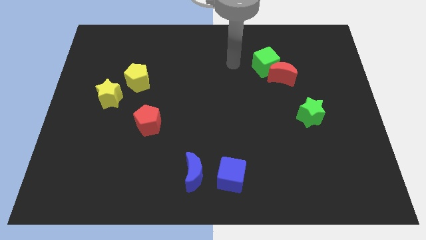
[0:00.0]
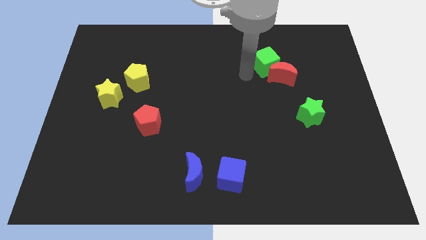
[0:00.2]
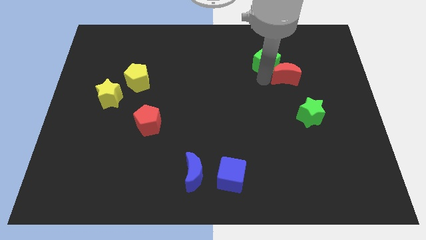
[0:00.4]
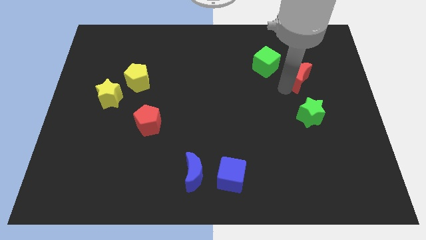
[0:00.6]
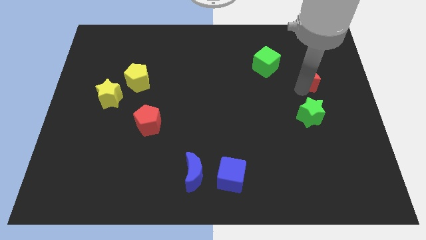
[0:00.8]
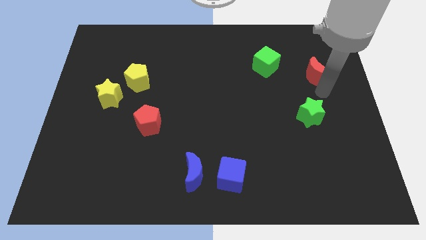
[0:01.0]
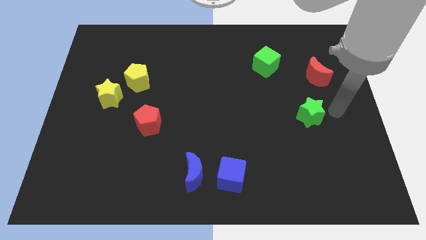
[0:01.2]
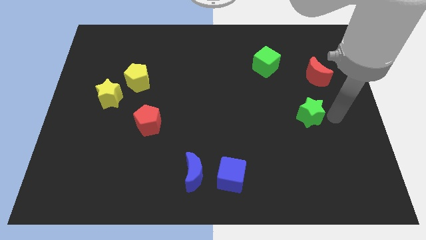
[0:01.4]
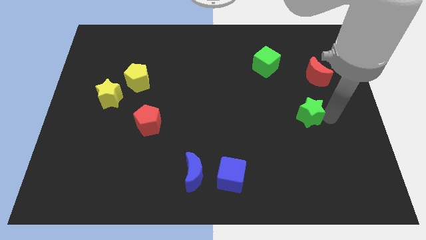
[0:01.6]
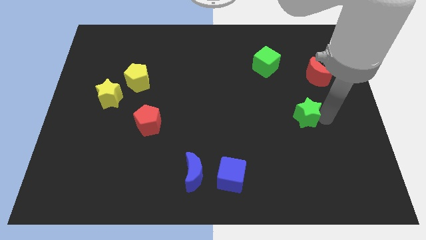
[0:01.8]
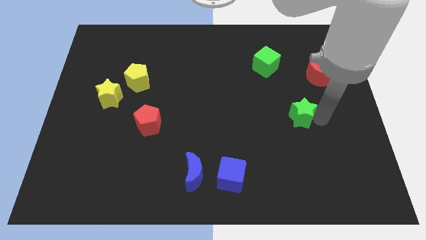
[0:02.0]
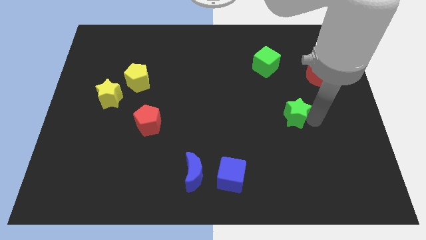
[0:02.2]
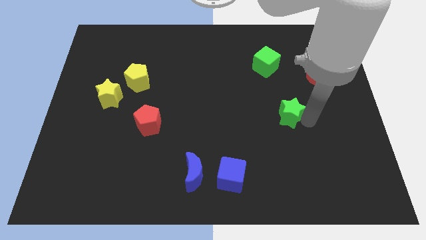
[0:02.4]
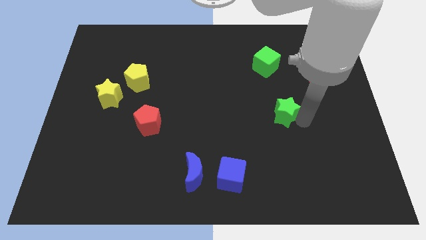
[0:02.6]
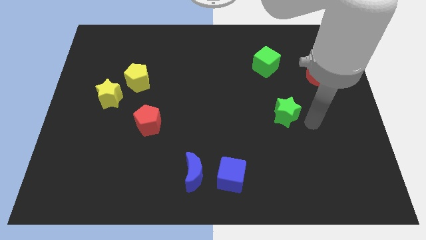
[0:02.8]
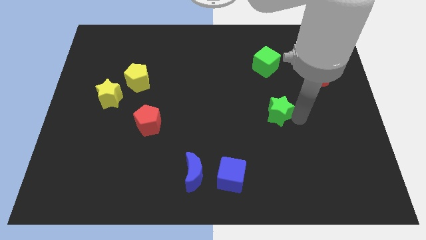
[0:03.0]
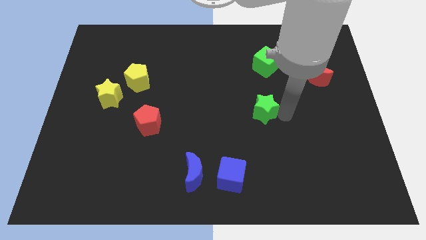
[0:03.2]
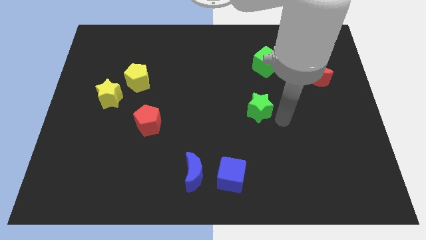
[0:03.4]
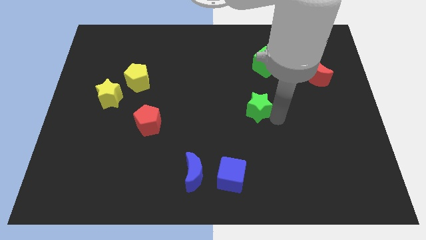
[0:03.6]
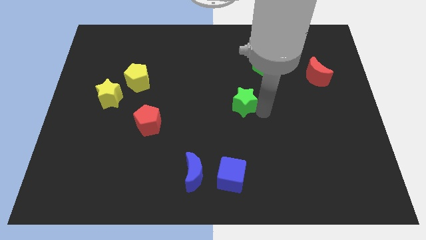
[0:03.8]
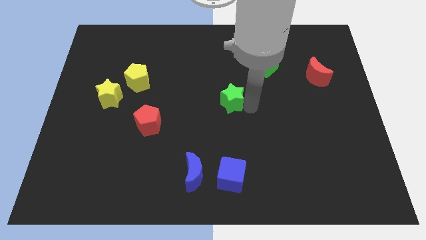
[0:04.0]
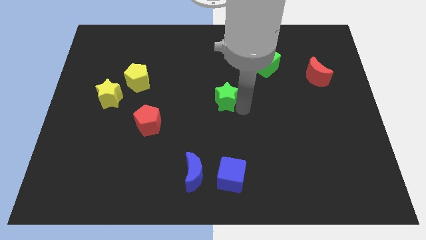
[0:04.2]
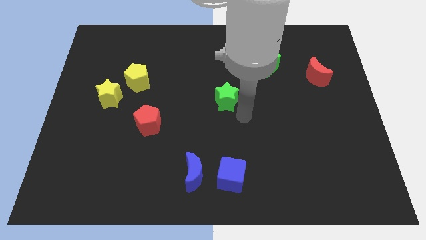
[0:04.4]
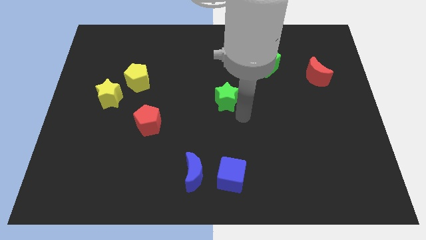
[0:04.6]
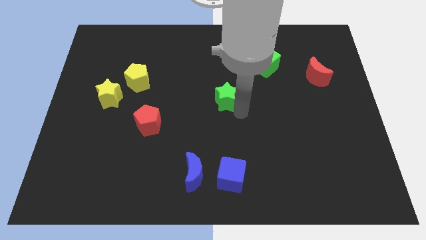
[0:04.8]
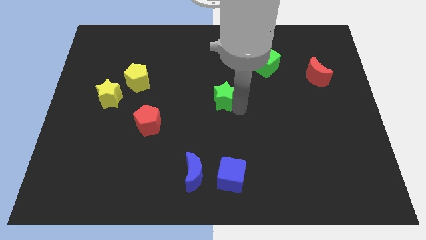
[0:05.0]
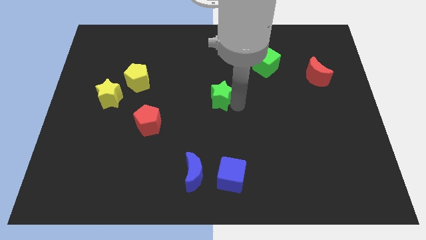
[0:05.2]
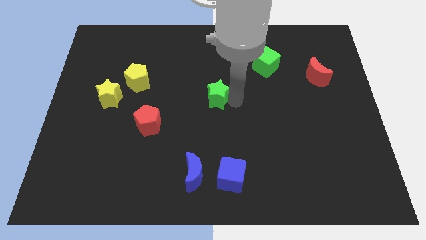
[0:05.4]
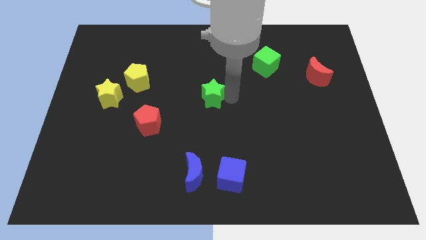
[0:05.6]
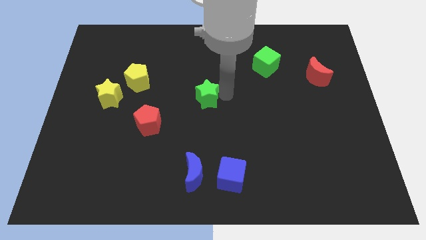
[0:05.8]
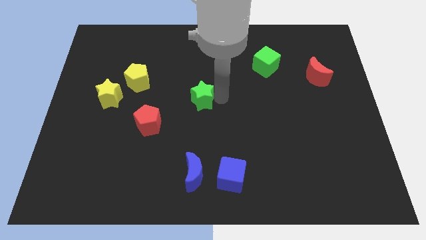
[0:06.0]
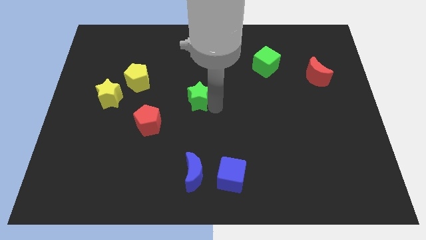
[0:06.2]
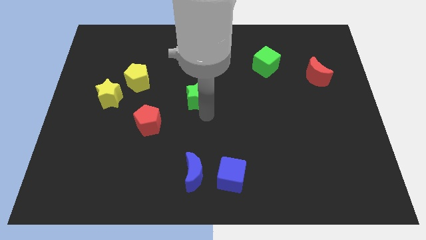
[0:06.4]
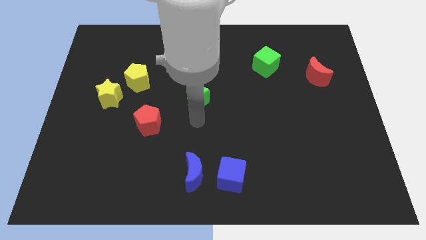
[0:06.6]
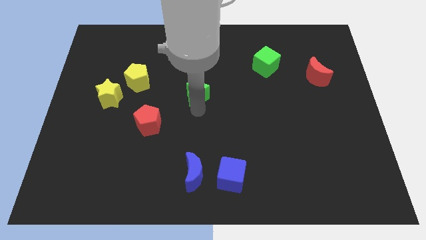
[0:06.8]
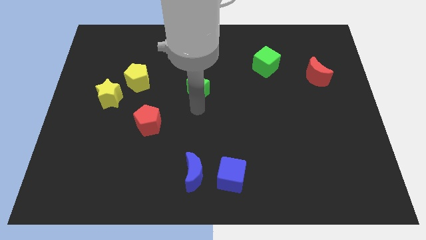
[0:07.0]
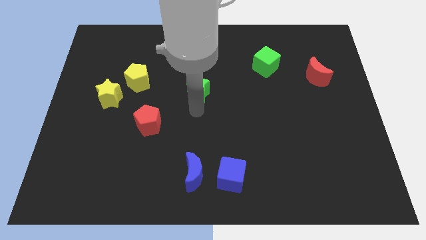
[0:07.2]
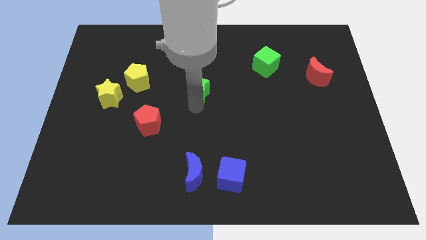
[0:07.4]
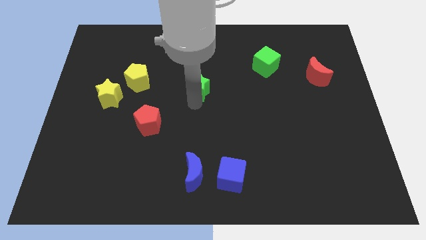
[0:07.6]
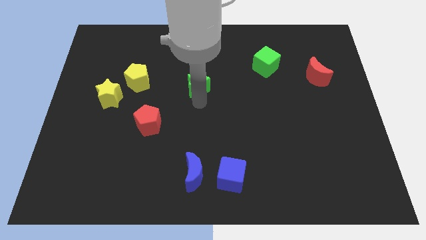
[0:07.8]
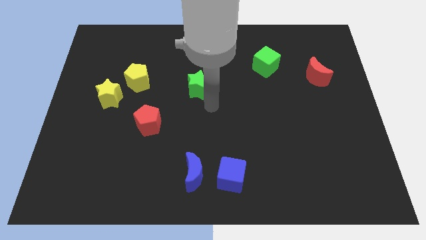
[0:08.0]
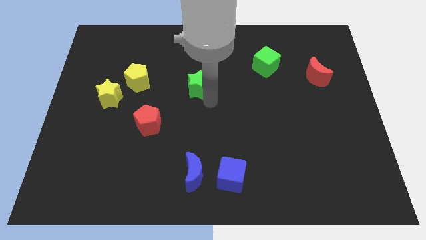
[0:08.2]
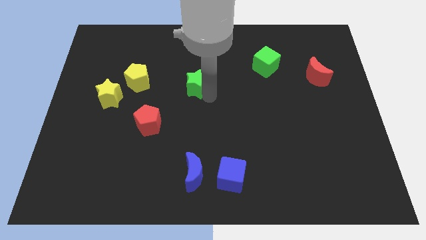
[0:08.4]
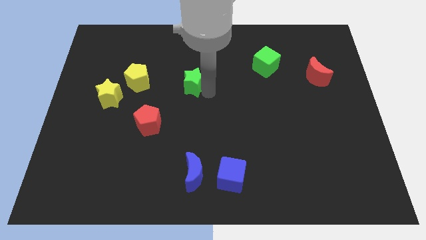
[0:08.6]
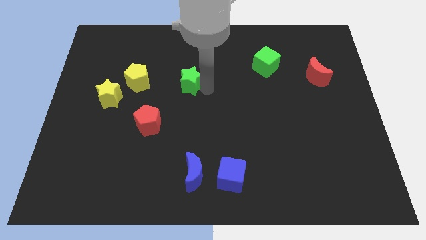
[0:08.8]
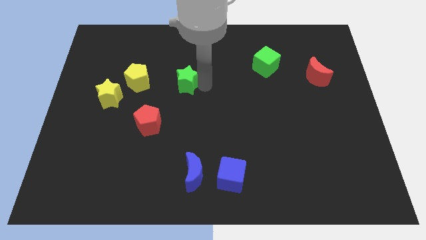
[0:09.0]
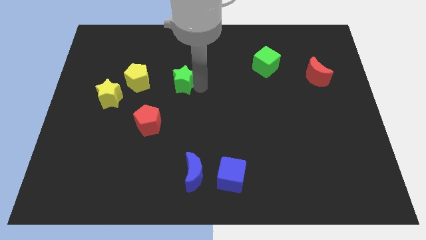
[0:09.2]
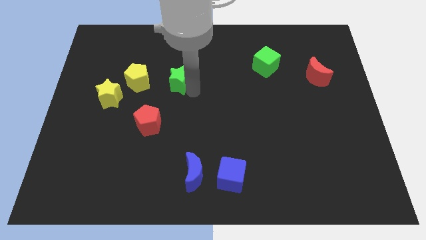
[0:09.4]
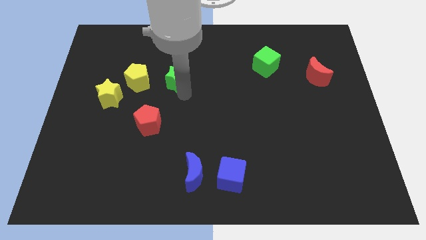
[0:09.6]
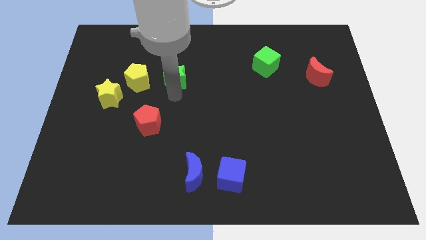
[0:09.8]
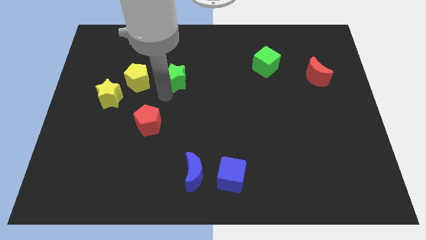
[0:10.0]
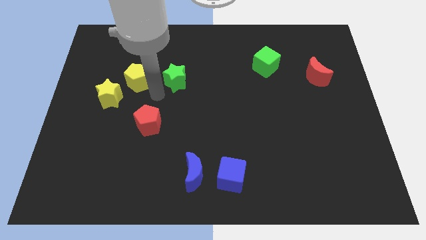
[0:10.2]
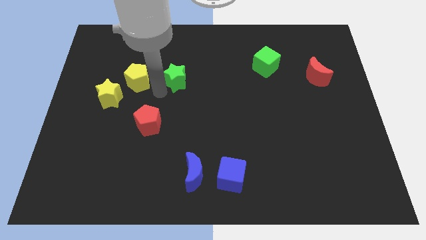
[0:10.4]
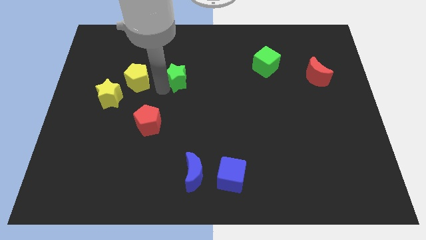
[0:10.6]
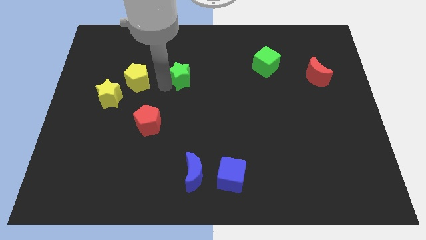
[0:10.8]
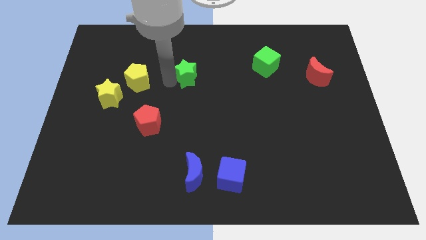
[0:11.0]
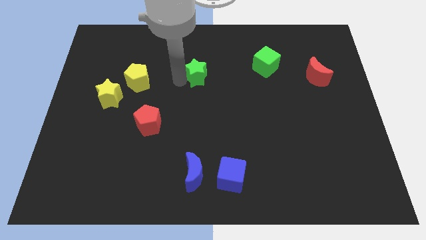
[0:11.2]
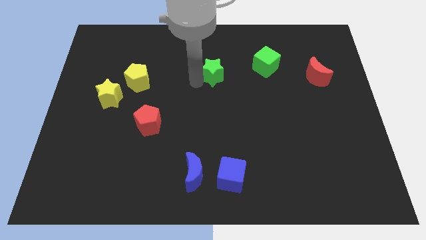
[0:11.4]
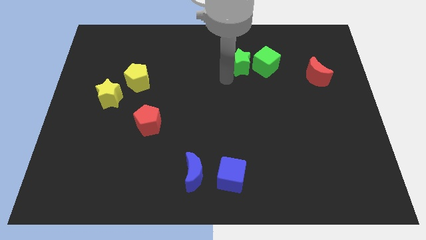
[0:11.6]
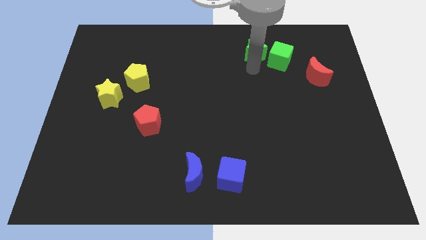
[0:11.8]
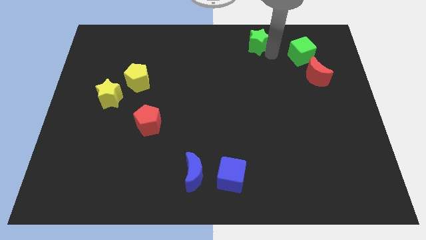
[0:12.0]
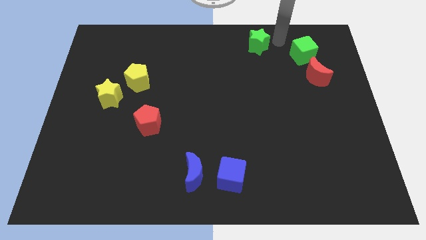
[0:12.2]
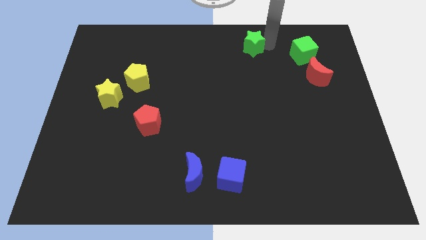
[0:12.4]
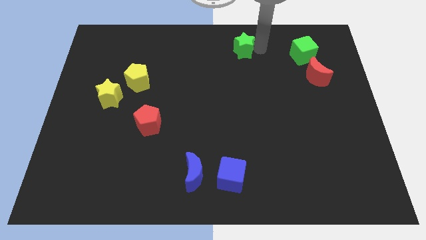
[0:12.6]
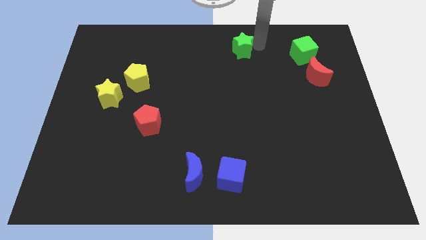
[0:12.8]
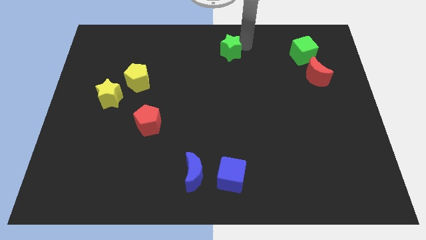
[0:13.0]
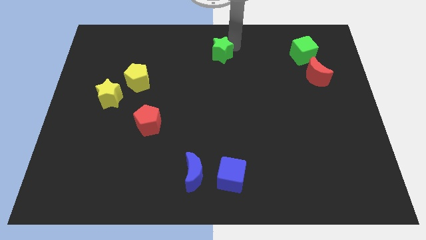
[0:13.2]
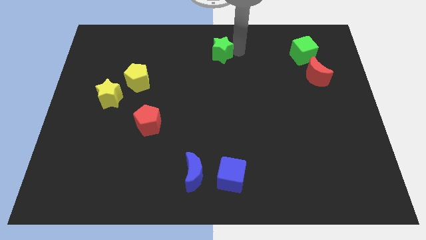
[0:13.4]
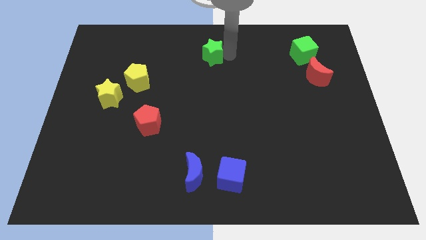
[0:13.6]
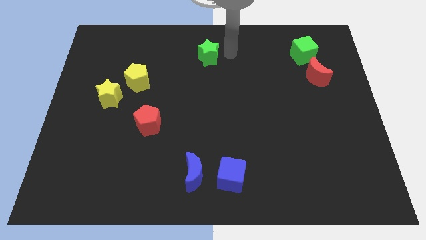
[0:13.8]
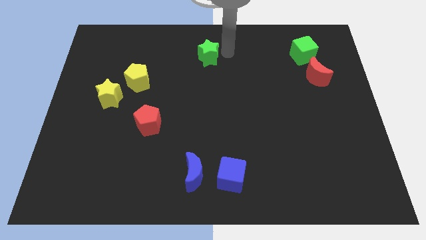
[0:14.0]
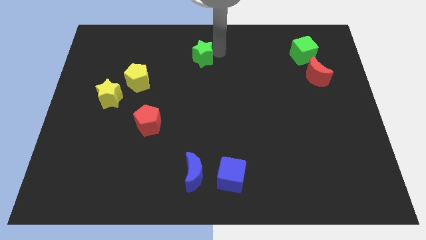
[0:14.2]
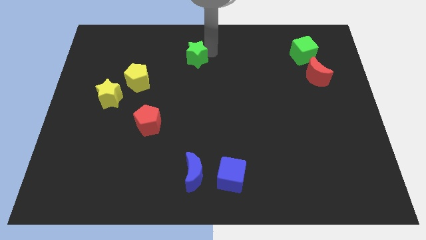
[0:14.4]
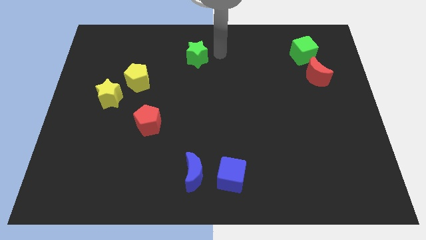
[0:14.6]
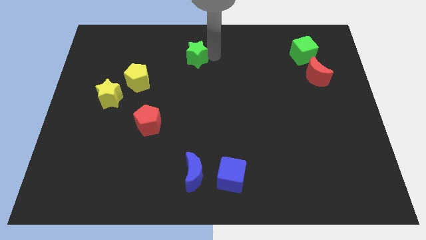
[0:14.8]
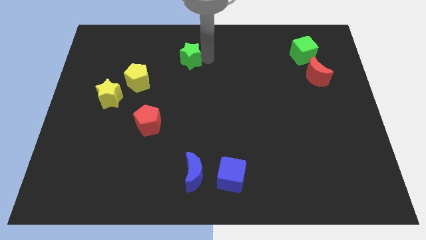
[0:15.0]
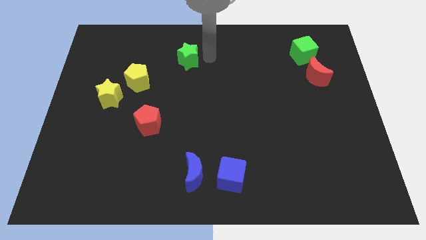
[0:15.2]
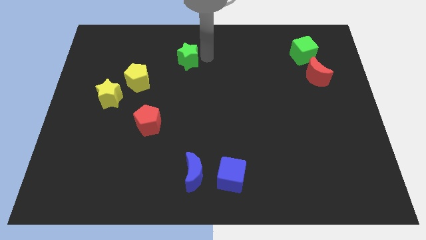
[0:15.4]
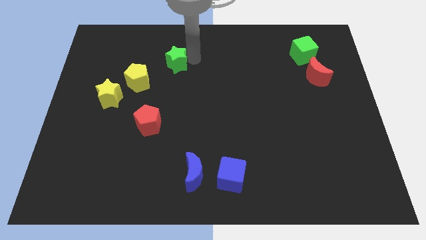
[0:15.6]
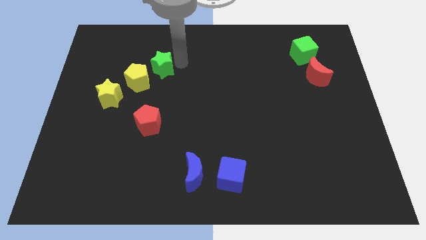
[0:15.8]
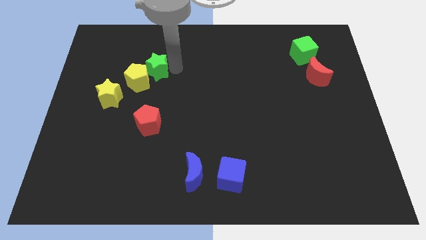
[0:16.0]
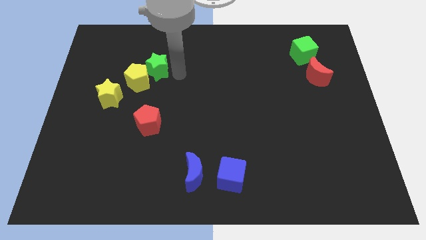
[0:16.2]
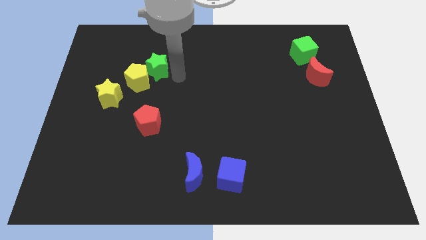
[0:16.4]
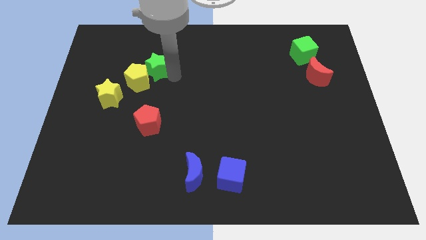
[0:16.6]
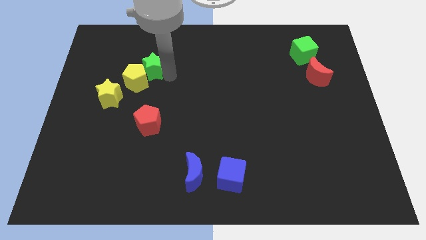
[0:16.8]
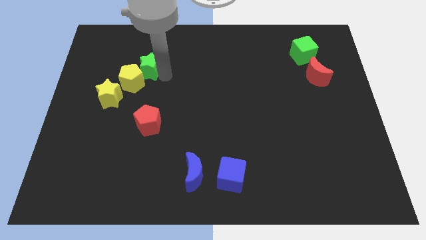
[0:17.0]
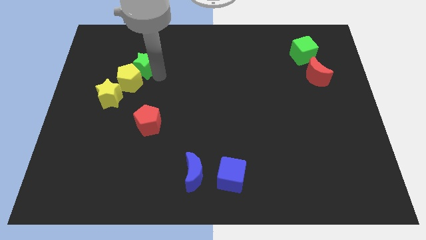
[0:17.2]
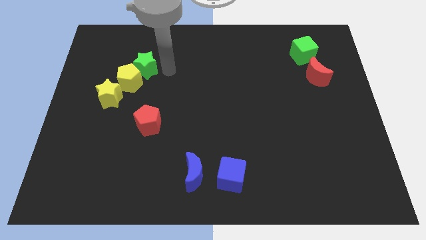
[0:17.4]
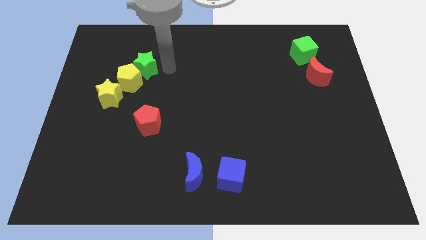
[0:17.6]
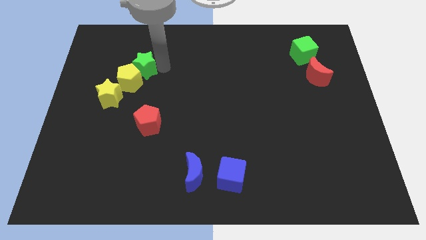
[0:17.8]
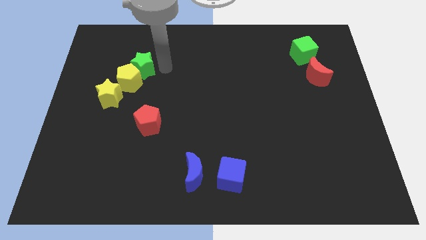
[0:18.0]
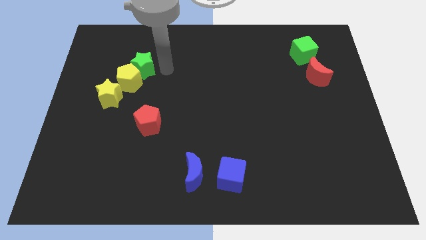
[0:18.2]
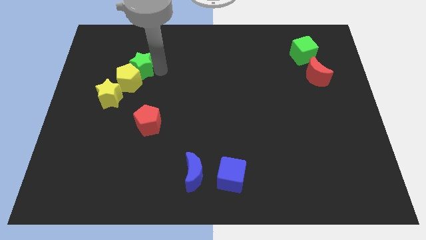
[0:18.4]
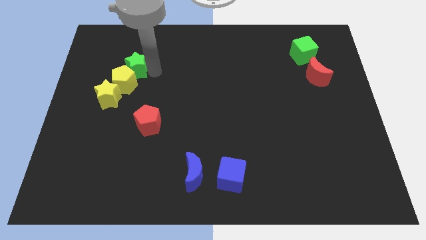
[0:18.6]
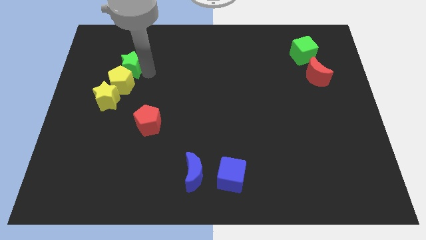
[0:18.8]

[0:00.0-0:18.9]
slide the green star above the yellow star
